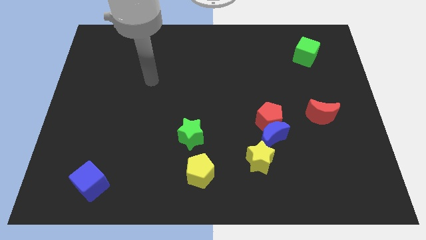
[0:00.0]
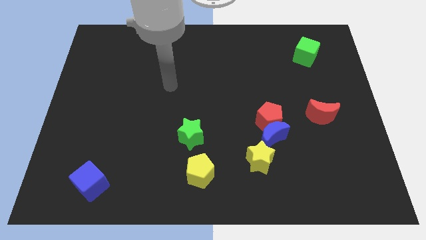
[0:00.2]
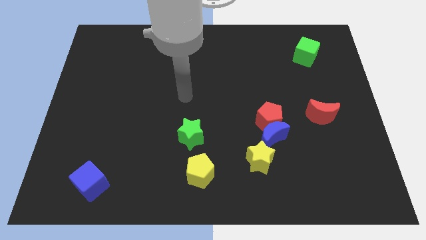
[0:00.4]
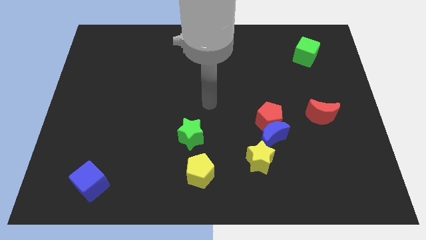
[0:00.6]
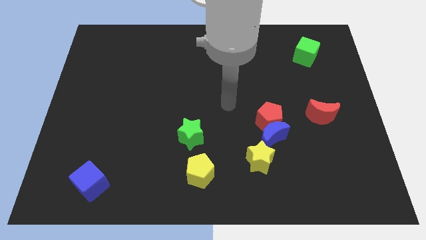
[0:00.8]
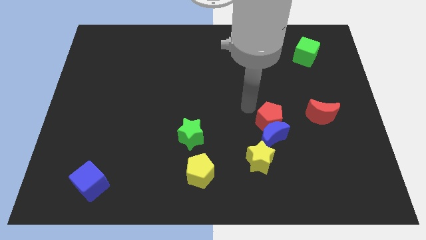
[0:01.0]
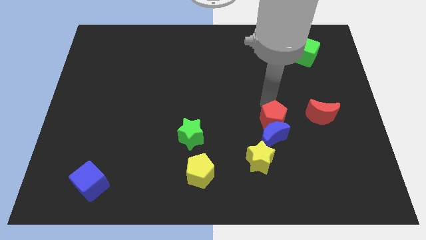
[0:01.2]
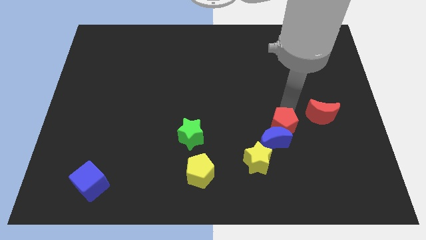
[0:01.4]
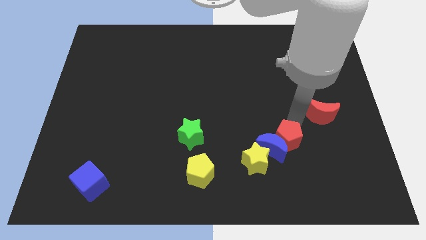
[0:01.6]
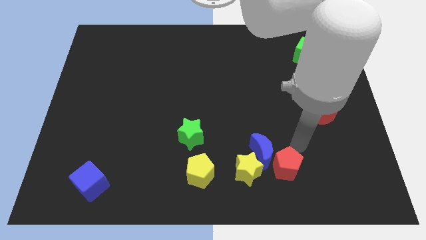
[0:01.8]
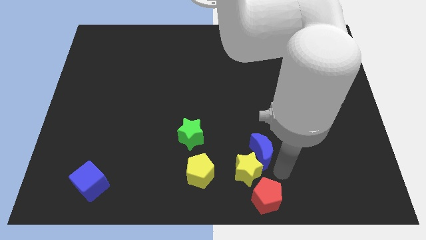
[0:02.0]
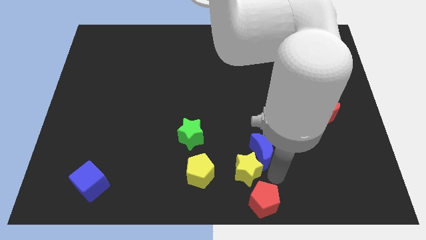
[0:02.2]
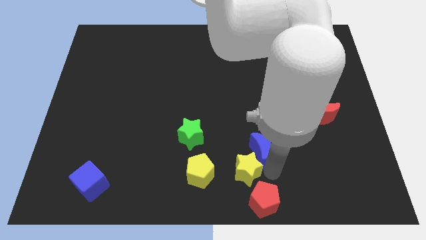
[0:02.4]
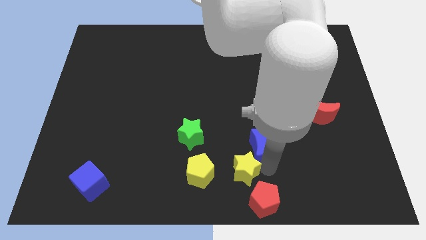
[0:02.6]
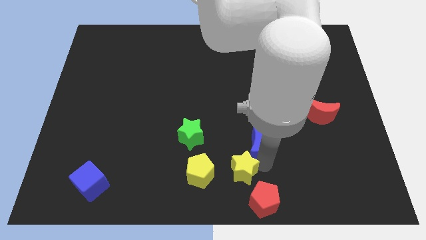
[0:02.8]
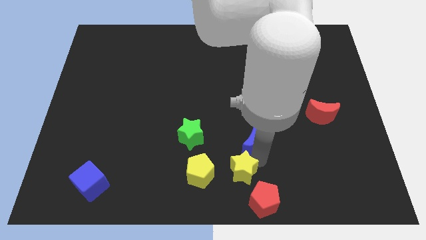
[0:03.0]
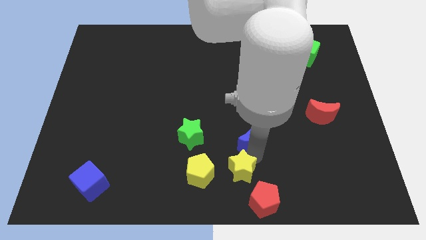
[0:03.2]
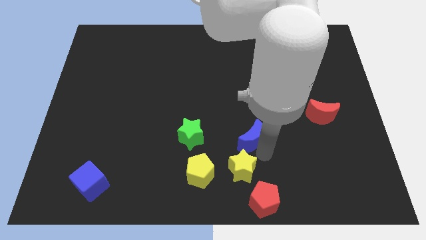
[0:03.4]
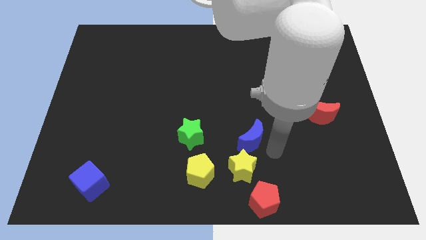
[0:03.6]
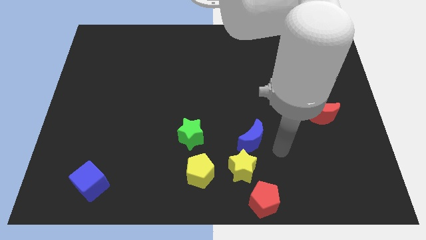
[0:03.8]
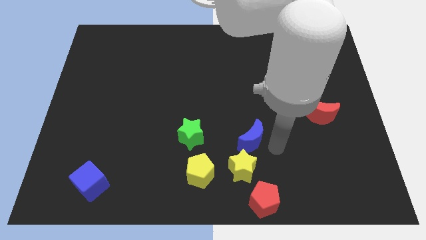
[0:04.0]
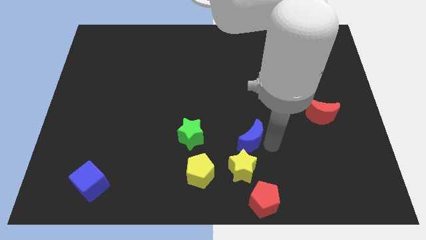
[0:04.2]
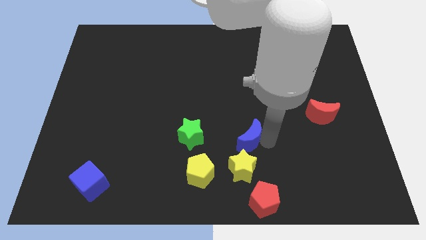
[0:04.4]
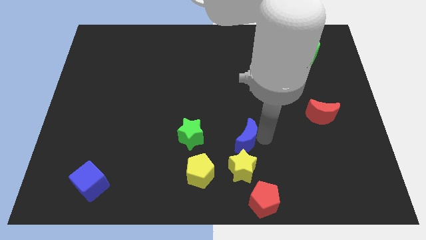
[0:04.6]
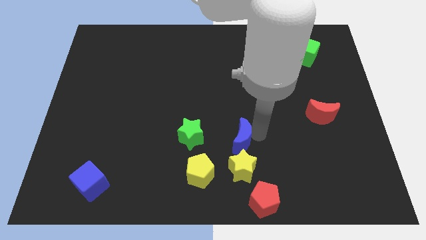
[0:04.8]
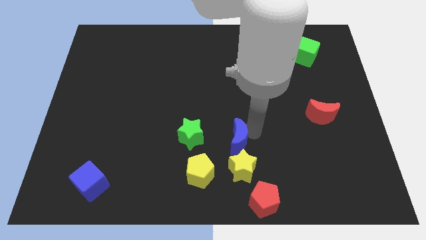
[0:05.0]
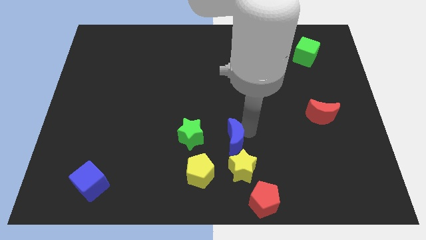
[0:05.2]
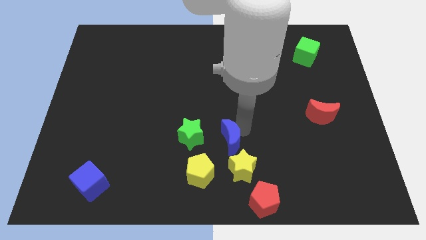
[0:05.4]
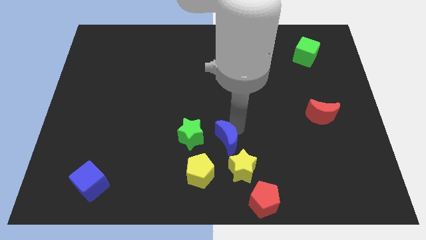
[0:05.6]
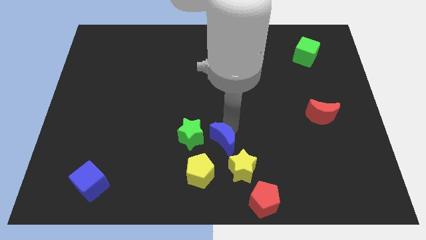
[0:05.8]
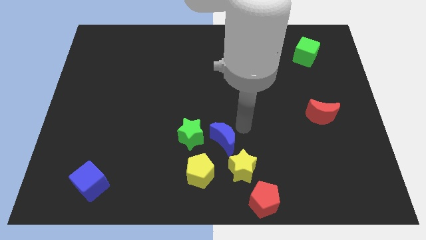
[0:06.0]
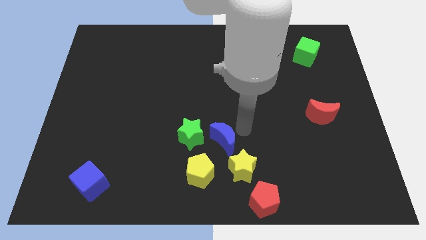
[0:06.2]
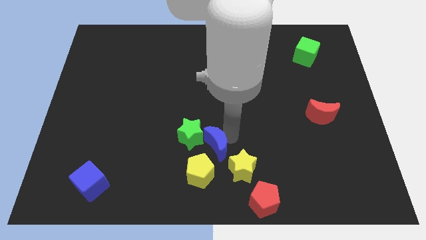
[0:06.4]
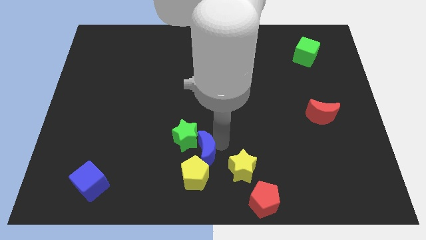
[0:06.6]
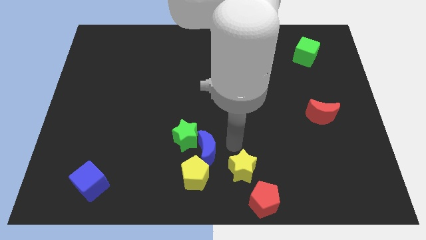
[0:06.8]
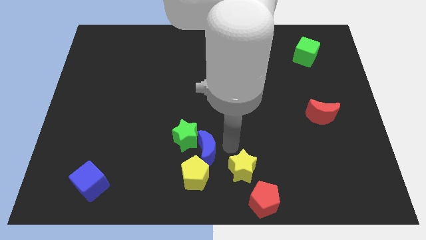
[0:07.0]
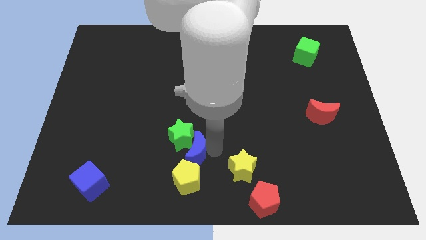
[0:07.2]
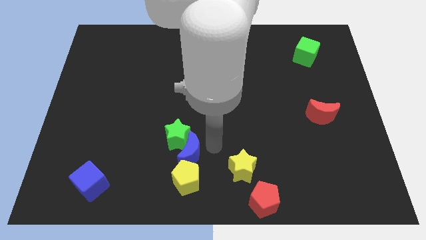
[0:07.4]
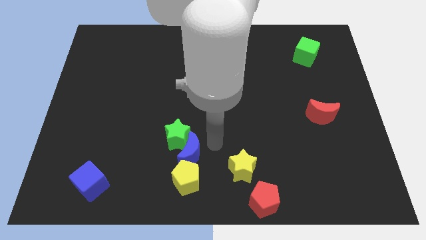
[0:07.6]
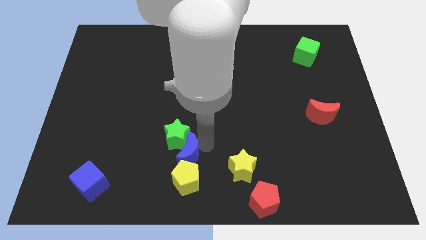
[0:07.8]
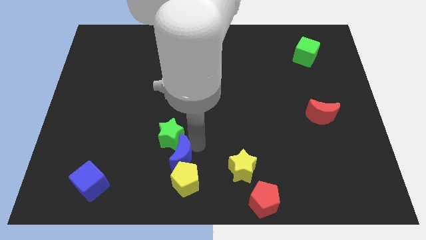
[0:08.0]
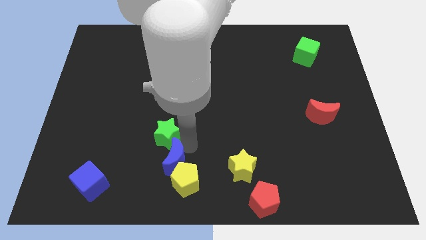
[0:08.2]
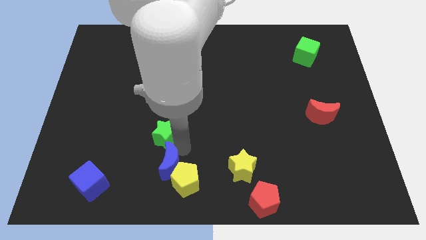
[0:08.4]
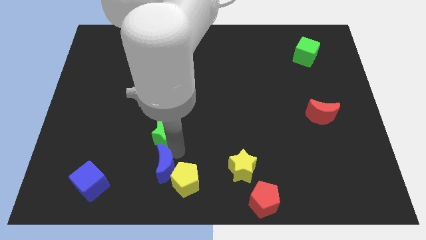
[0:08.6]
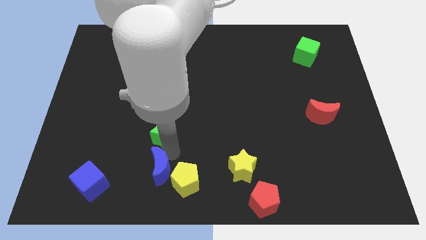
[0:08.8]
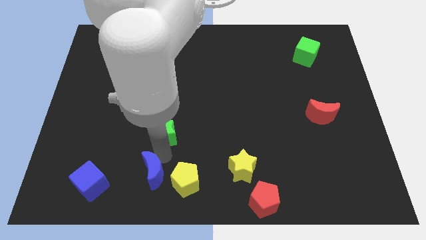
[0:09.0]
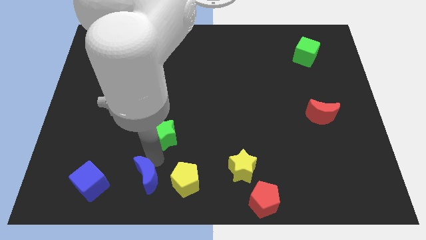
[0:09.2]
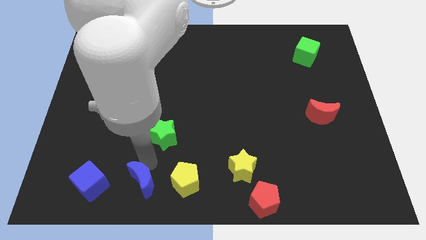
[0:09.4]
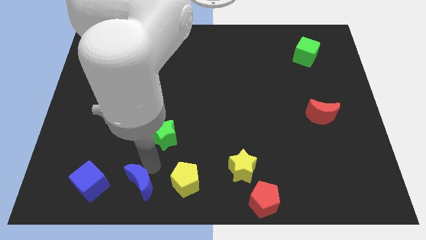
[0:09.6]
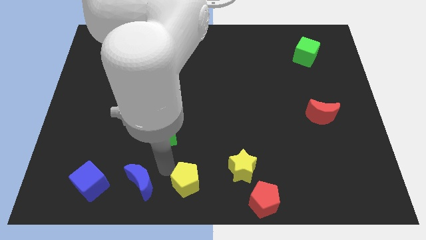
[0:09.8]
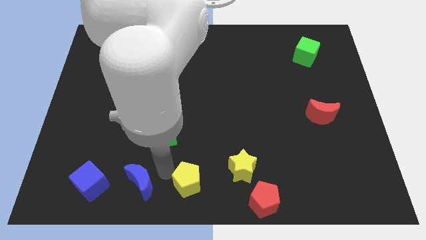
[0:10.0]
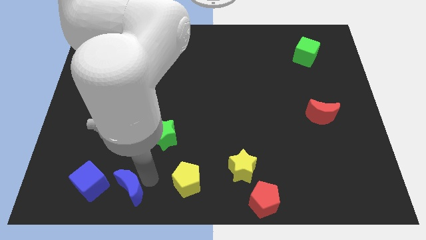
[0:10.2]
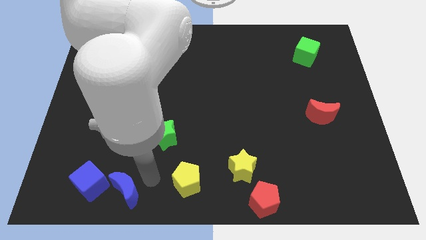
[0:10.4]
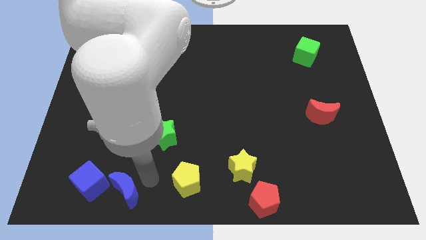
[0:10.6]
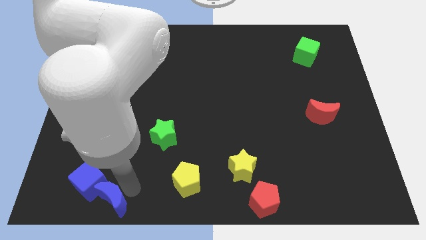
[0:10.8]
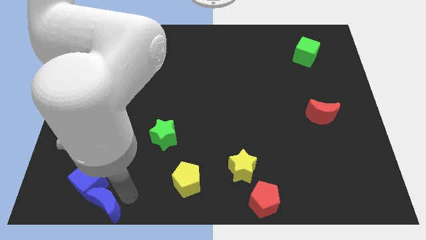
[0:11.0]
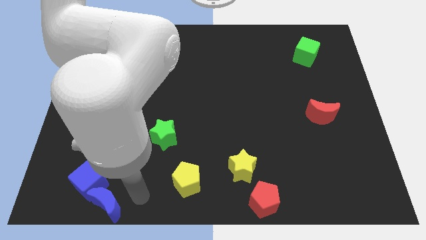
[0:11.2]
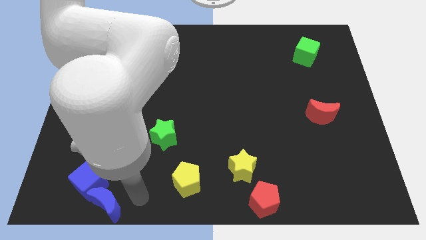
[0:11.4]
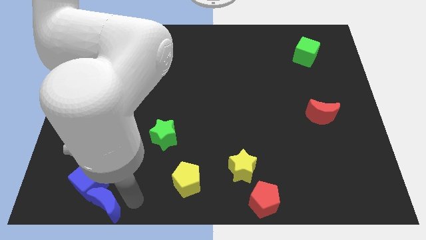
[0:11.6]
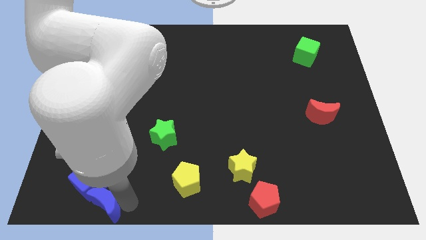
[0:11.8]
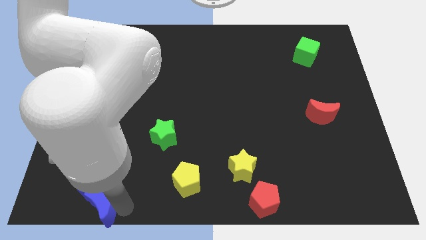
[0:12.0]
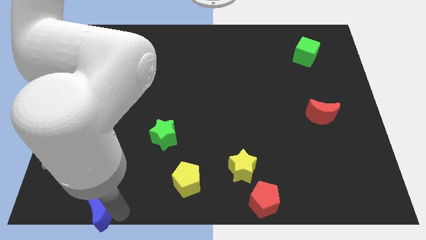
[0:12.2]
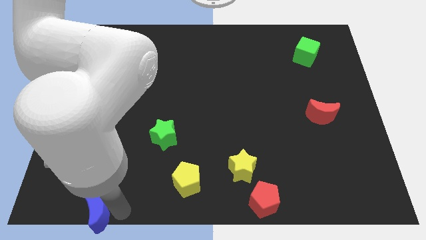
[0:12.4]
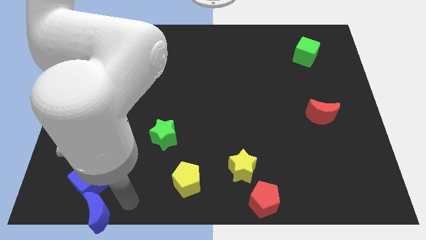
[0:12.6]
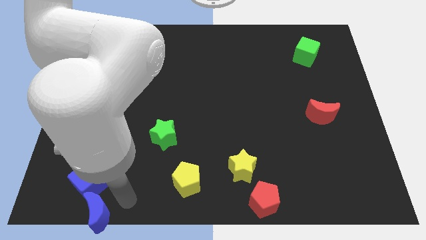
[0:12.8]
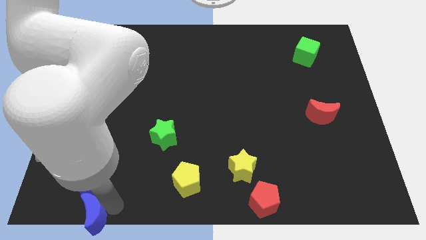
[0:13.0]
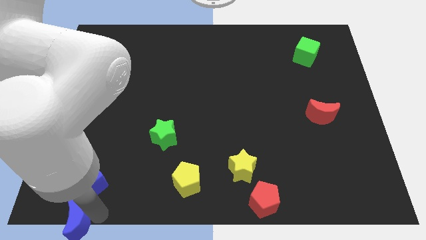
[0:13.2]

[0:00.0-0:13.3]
slide the blue moon to the bottom left

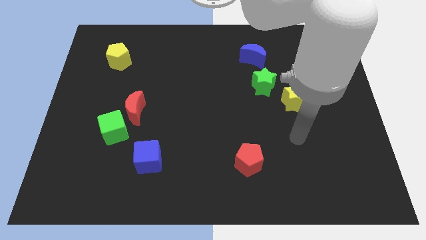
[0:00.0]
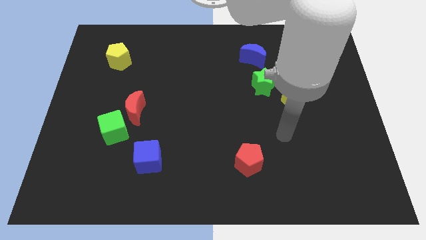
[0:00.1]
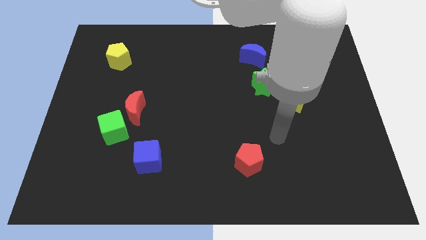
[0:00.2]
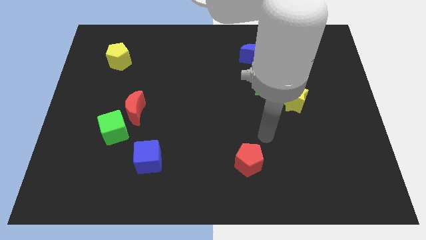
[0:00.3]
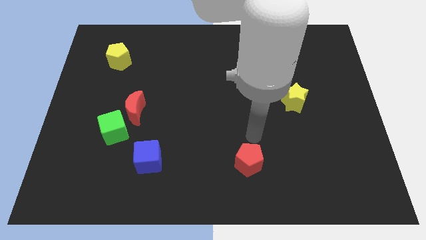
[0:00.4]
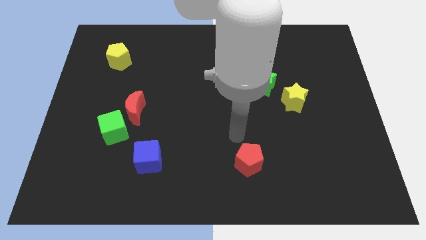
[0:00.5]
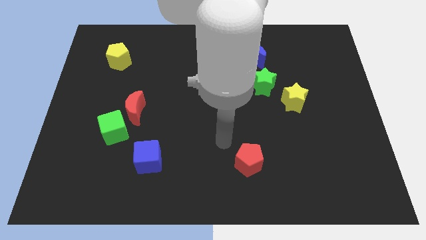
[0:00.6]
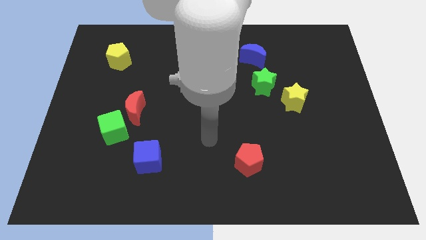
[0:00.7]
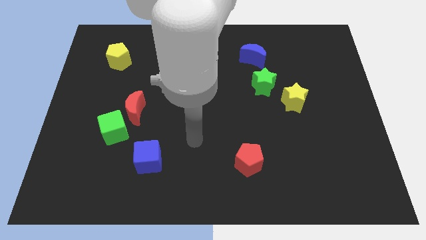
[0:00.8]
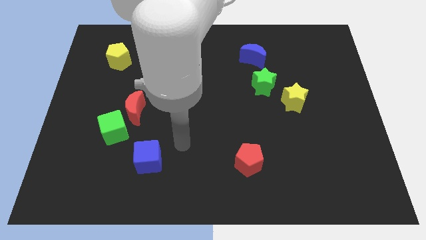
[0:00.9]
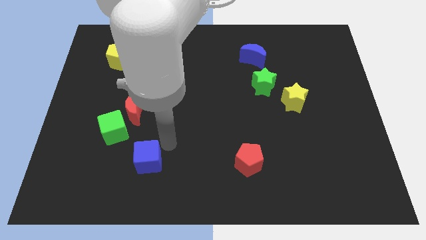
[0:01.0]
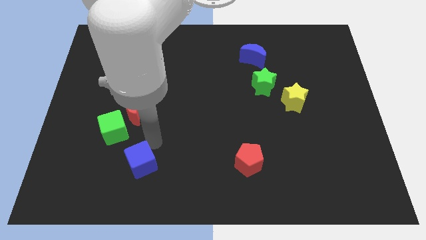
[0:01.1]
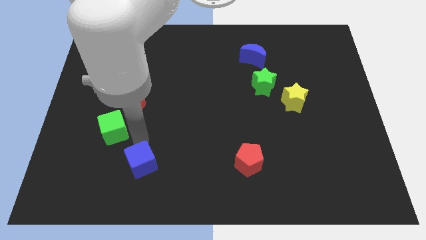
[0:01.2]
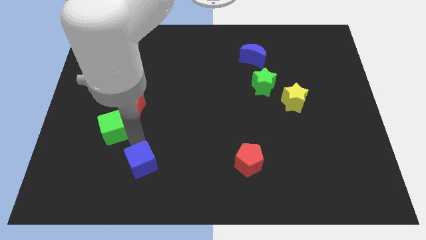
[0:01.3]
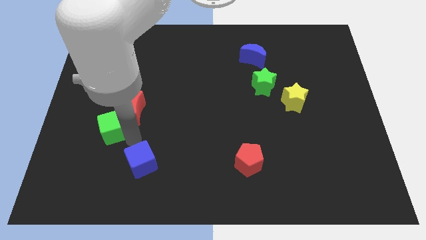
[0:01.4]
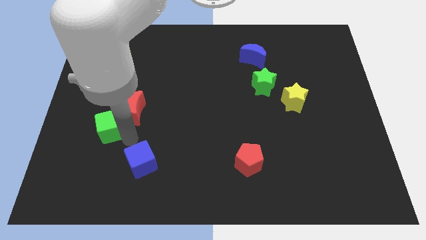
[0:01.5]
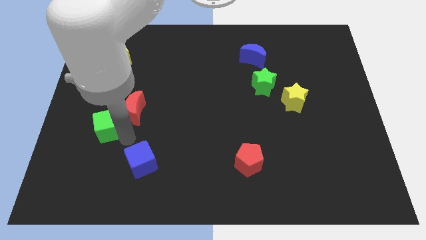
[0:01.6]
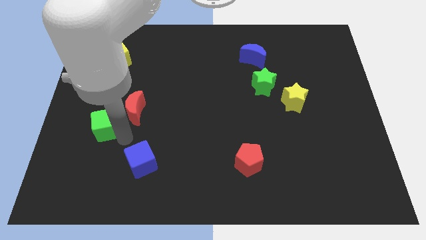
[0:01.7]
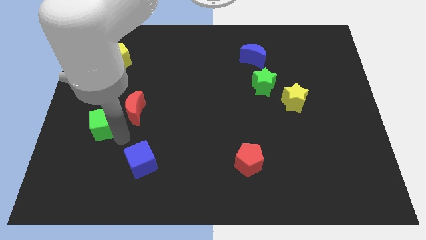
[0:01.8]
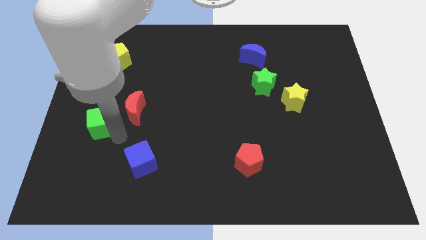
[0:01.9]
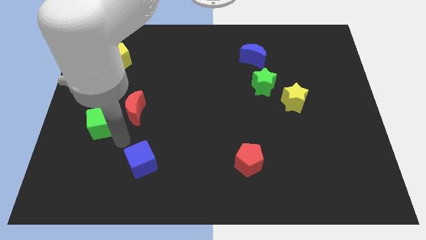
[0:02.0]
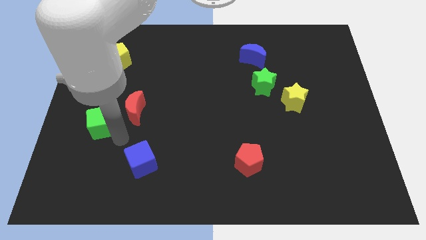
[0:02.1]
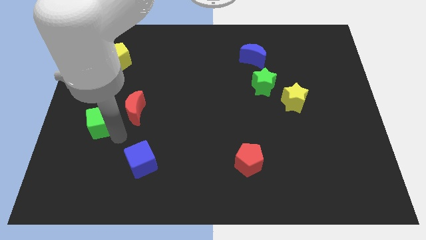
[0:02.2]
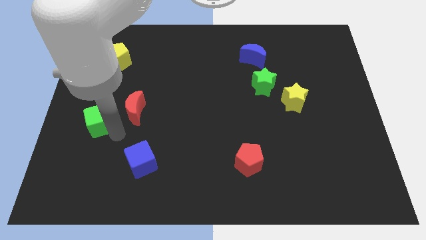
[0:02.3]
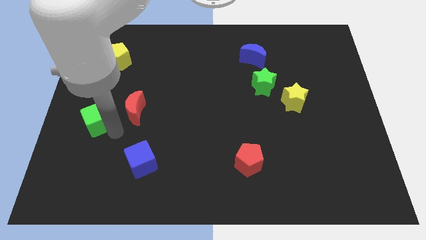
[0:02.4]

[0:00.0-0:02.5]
put the green cube to the left side
